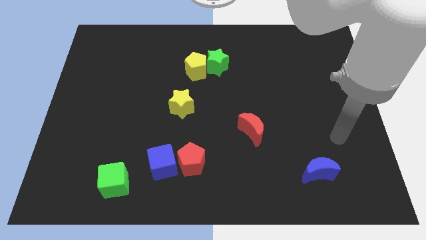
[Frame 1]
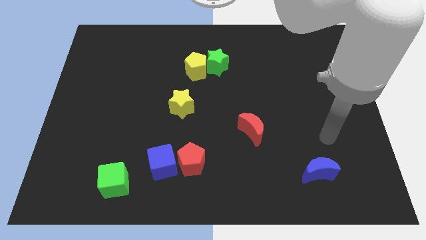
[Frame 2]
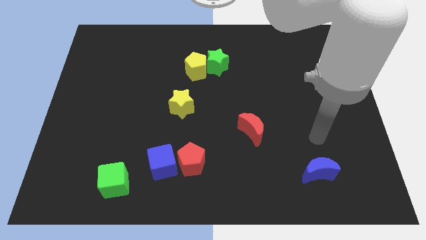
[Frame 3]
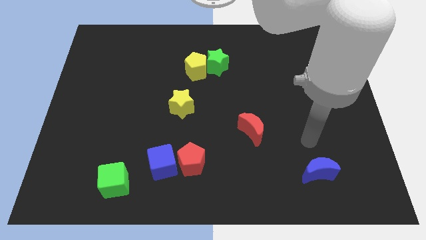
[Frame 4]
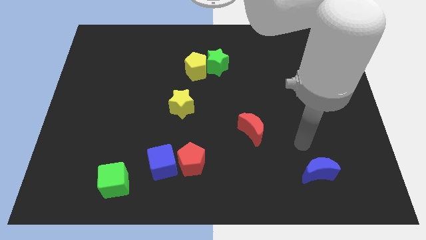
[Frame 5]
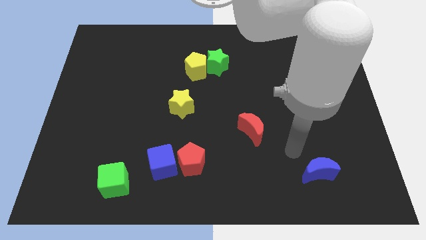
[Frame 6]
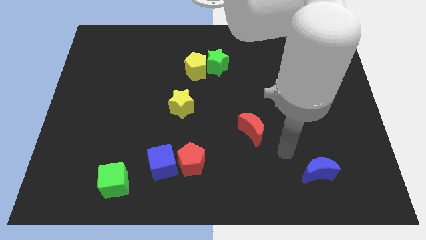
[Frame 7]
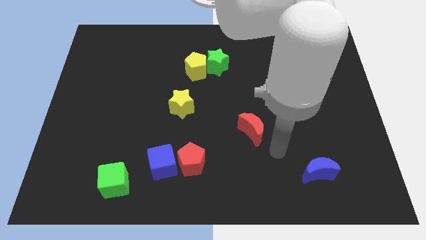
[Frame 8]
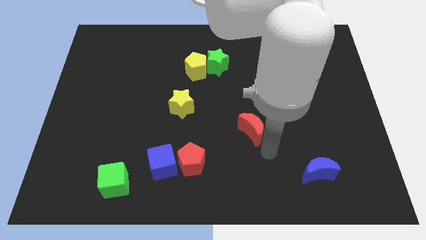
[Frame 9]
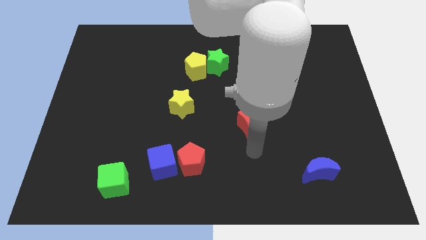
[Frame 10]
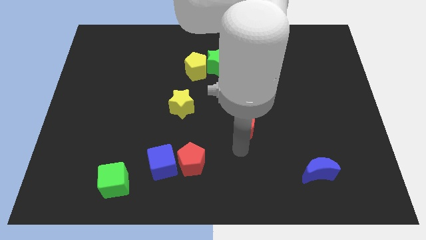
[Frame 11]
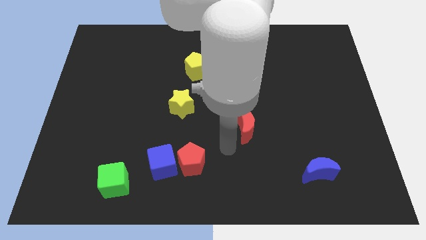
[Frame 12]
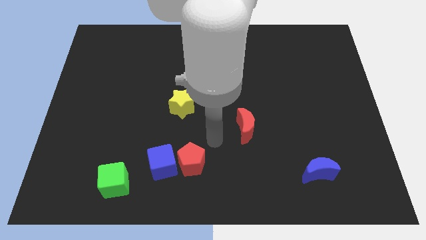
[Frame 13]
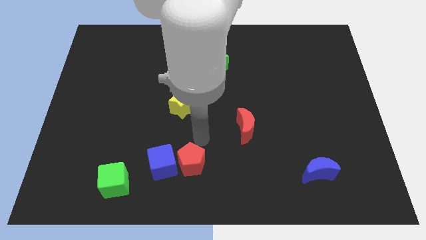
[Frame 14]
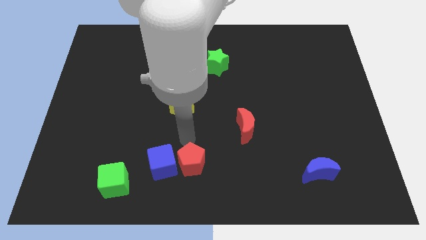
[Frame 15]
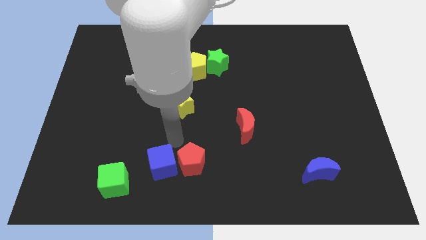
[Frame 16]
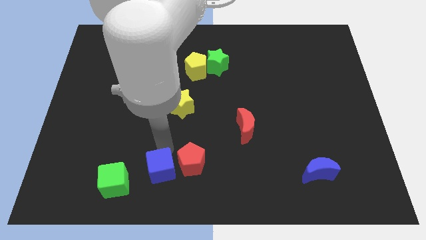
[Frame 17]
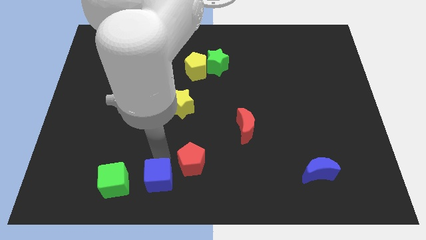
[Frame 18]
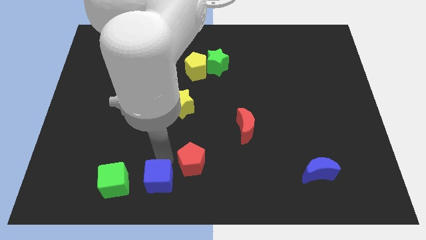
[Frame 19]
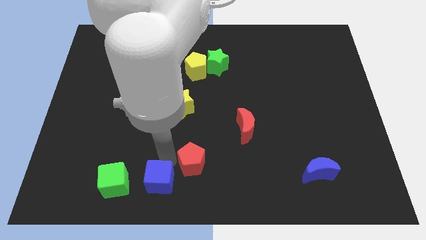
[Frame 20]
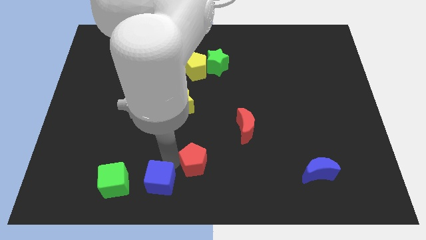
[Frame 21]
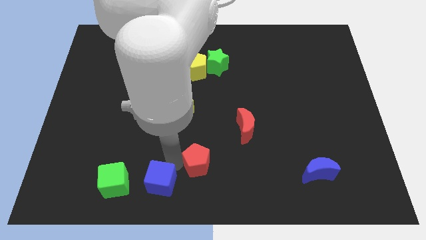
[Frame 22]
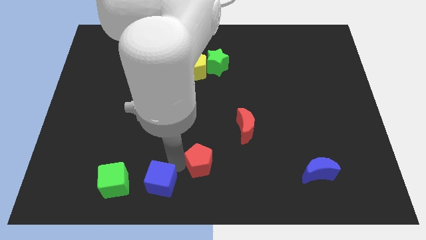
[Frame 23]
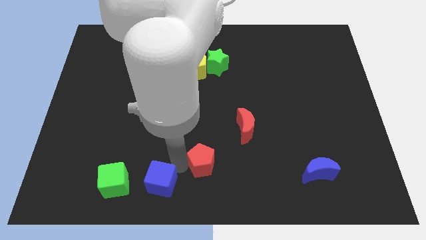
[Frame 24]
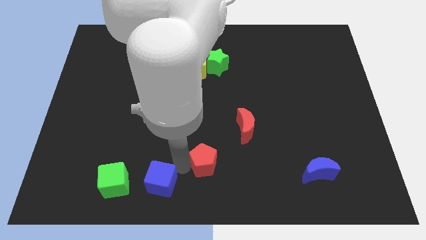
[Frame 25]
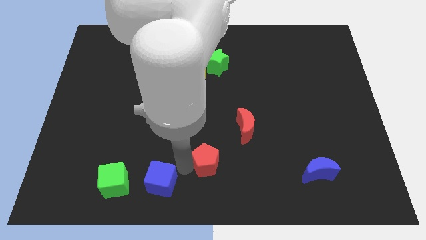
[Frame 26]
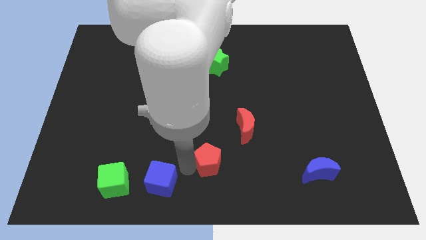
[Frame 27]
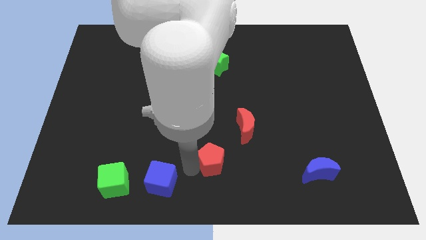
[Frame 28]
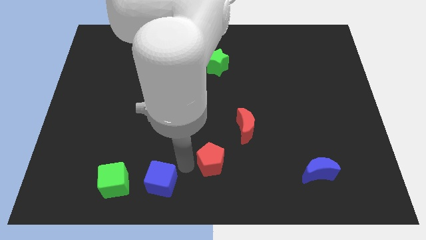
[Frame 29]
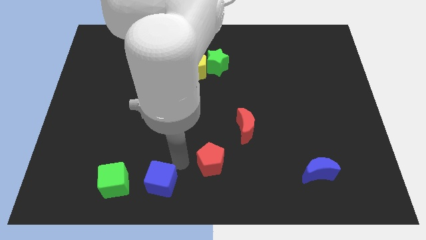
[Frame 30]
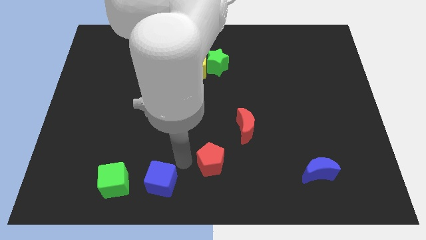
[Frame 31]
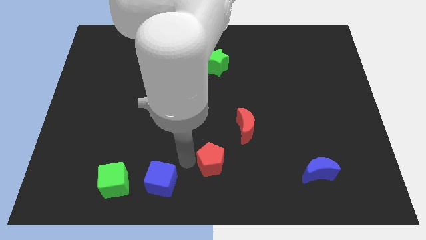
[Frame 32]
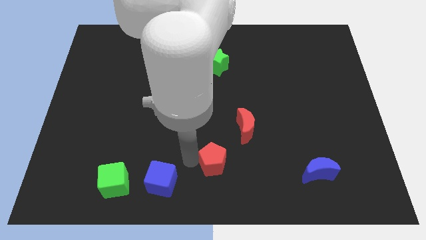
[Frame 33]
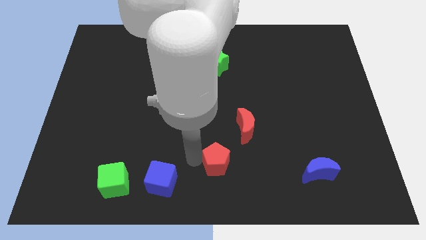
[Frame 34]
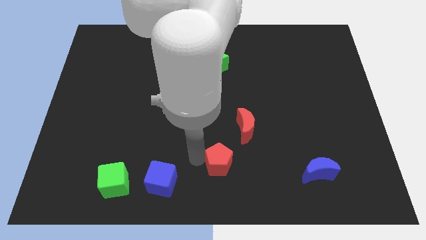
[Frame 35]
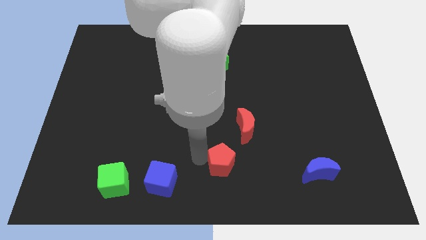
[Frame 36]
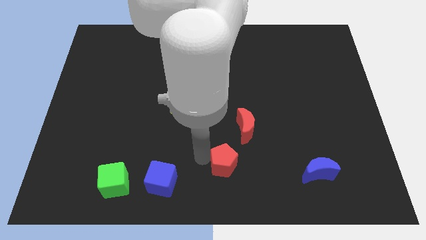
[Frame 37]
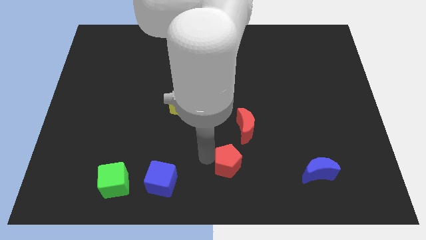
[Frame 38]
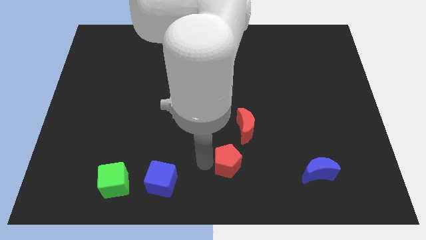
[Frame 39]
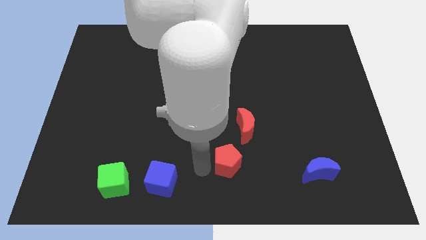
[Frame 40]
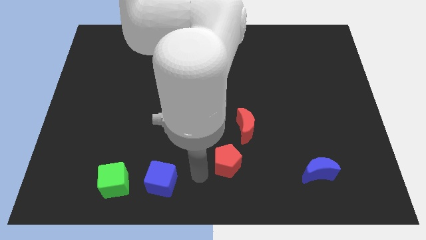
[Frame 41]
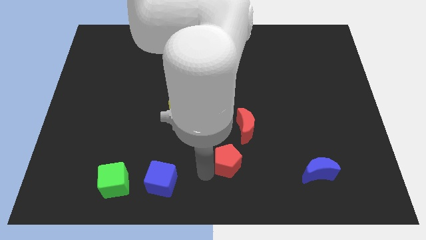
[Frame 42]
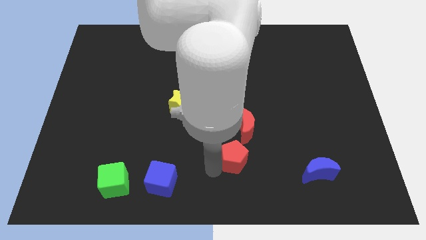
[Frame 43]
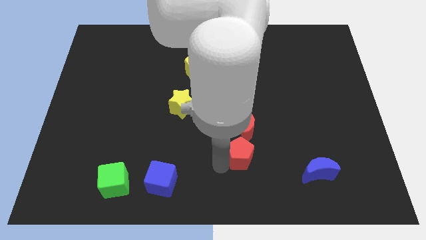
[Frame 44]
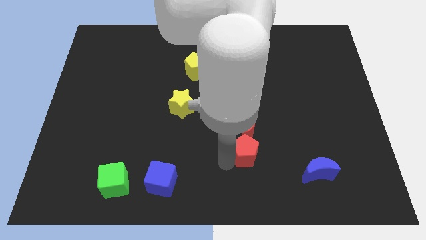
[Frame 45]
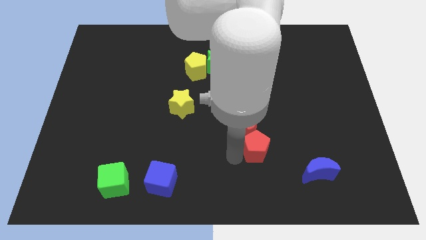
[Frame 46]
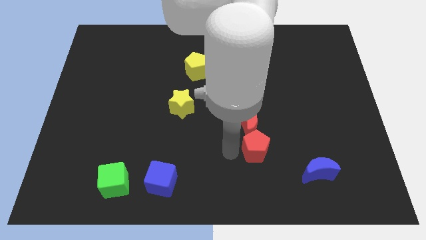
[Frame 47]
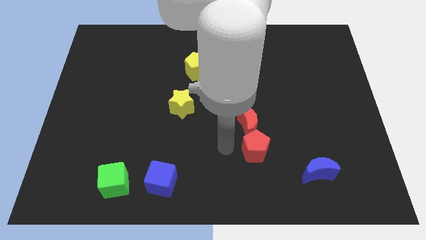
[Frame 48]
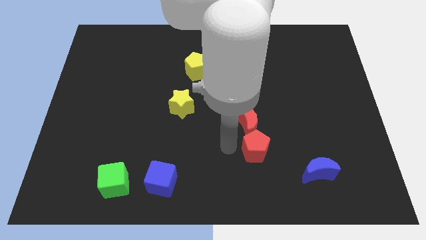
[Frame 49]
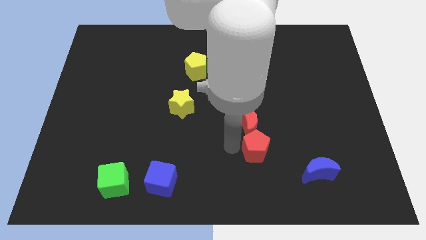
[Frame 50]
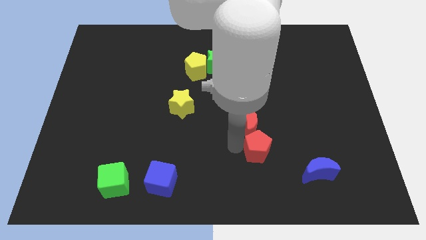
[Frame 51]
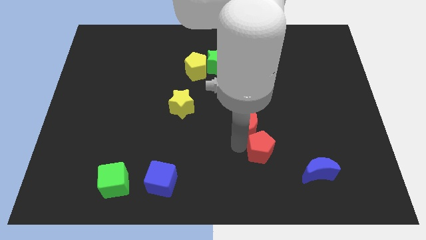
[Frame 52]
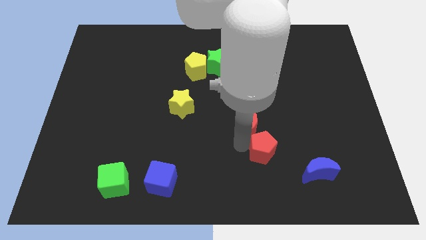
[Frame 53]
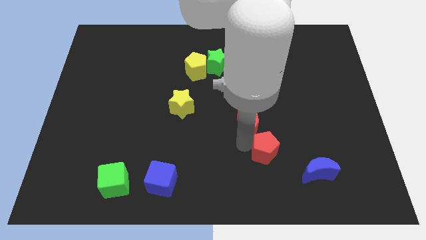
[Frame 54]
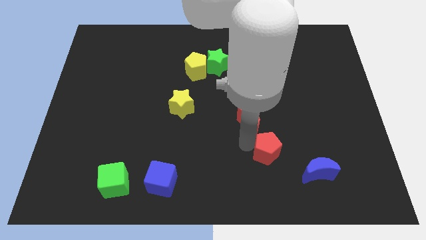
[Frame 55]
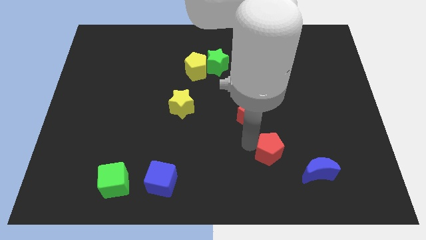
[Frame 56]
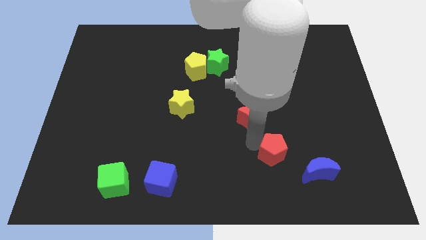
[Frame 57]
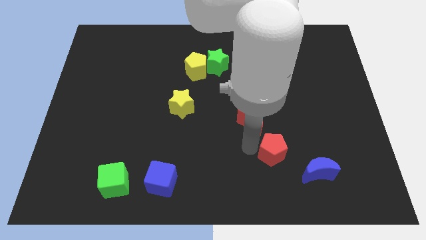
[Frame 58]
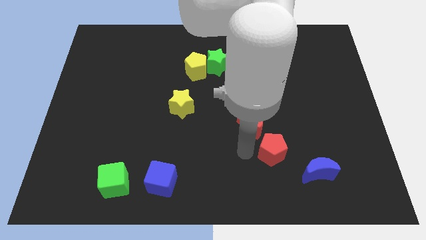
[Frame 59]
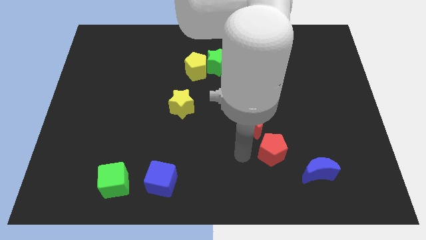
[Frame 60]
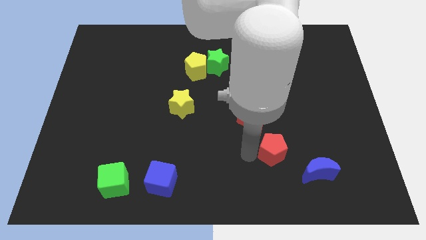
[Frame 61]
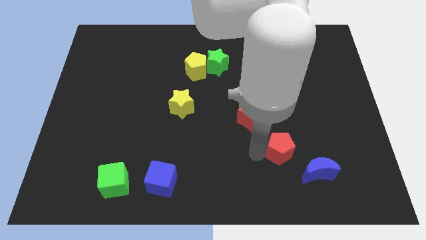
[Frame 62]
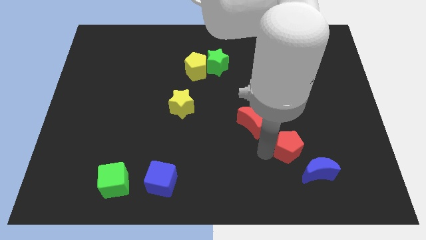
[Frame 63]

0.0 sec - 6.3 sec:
slide the red pentagon right

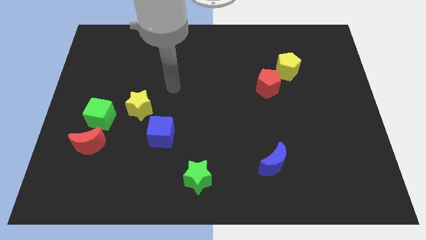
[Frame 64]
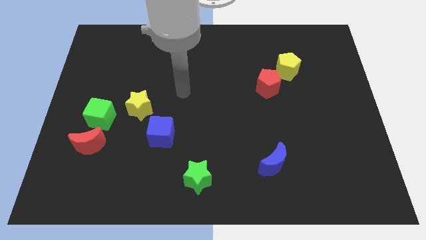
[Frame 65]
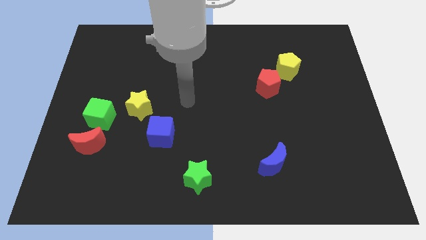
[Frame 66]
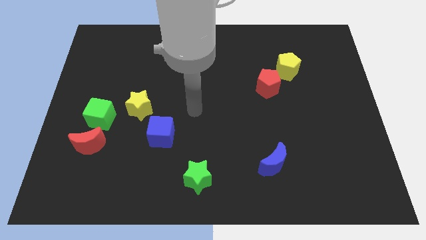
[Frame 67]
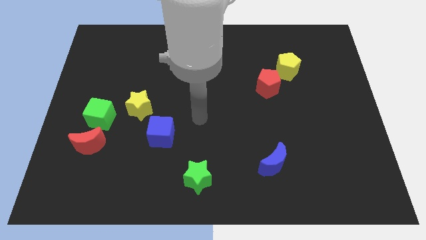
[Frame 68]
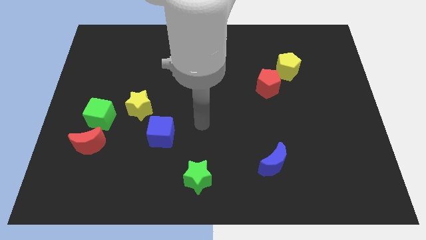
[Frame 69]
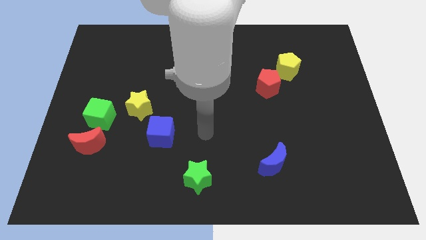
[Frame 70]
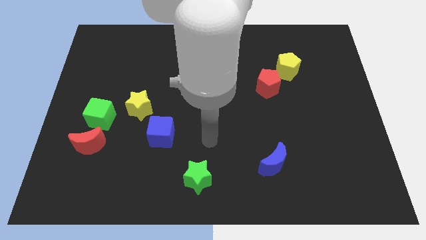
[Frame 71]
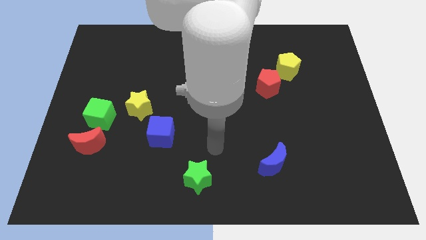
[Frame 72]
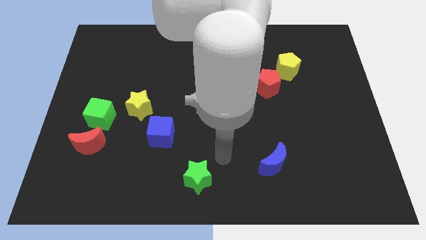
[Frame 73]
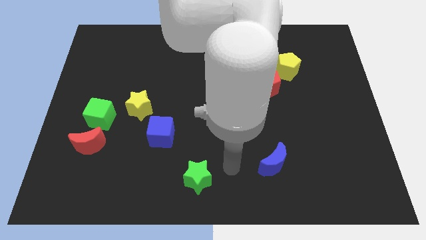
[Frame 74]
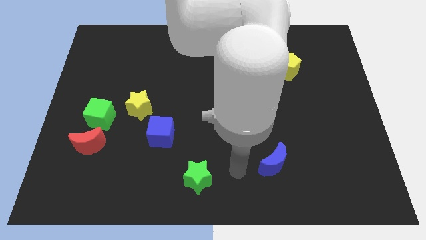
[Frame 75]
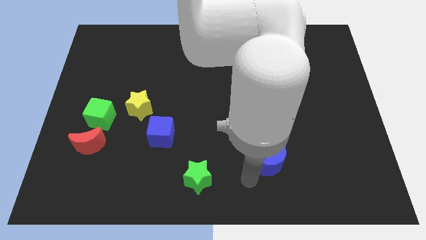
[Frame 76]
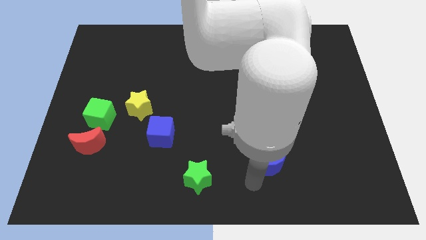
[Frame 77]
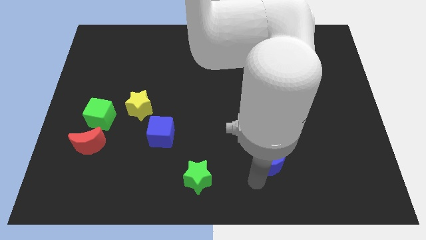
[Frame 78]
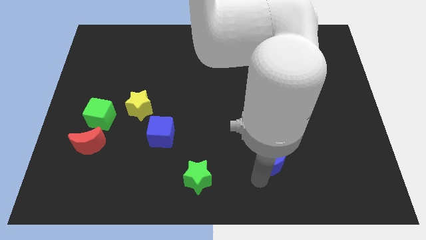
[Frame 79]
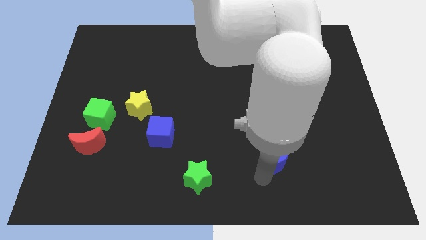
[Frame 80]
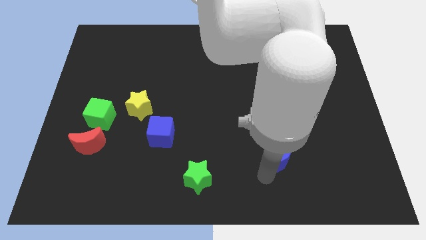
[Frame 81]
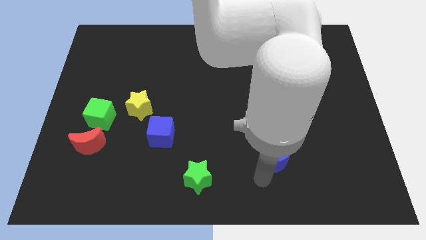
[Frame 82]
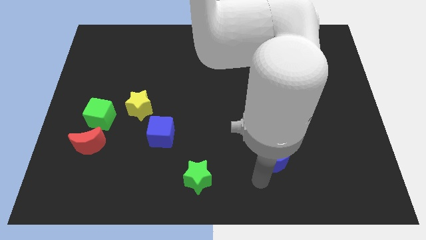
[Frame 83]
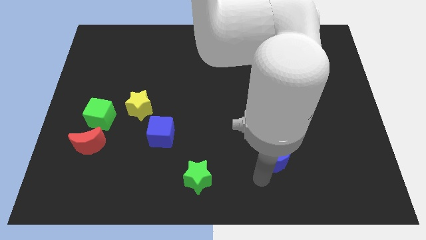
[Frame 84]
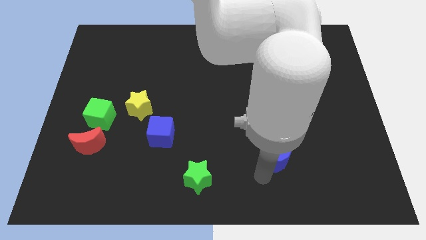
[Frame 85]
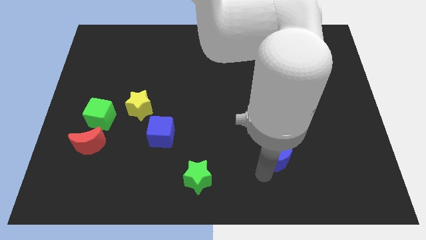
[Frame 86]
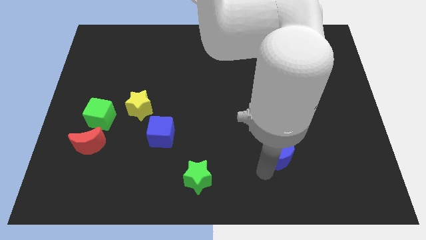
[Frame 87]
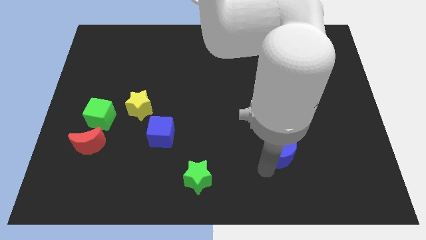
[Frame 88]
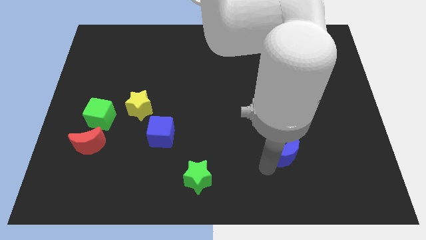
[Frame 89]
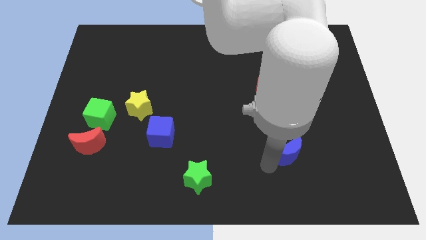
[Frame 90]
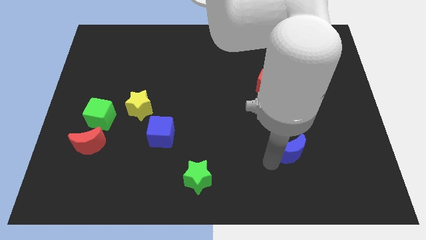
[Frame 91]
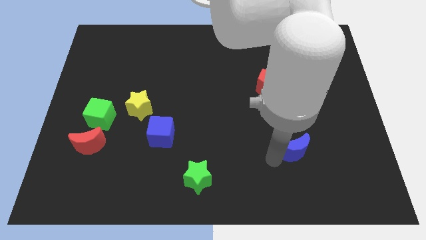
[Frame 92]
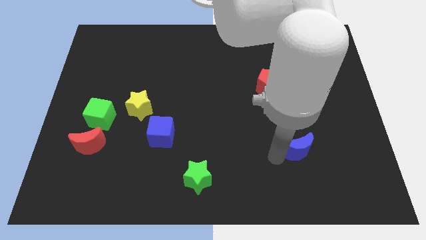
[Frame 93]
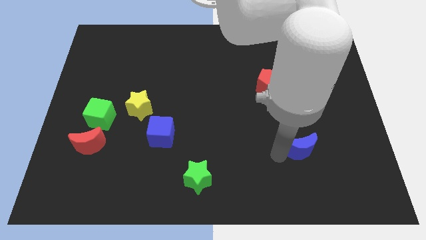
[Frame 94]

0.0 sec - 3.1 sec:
push the blue moon slightly up and to the right diagonally
